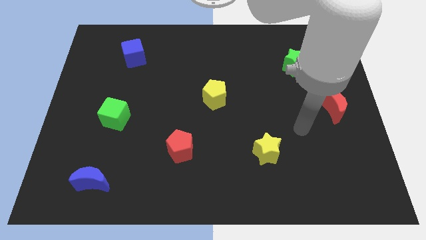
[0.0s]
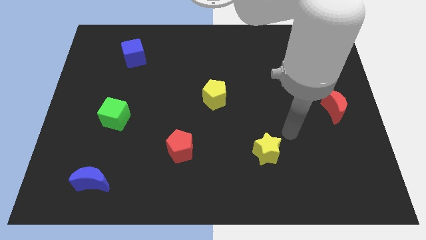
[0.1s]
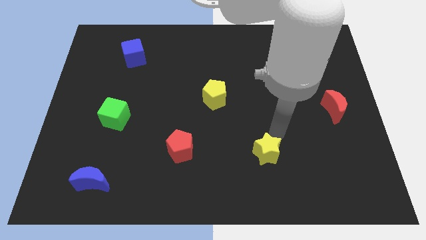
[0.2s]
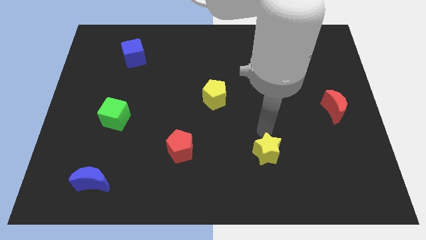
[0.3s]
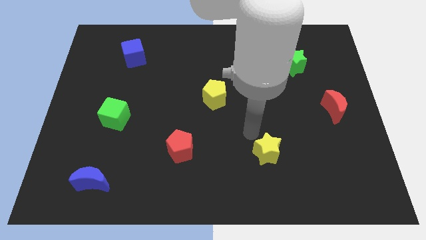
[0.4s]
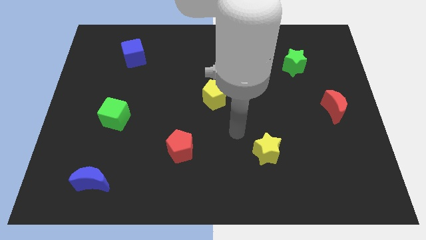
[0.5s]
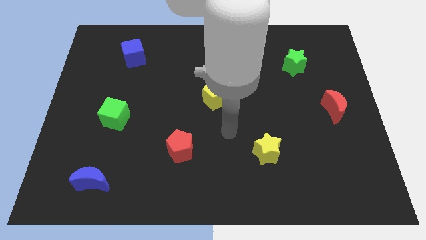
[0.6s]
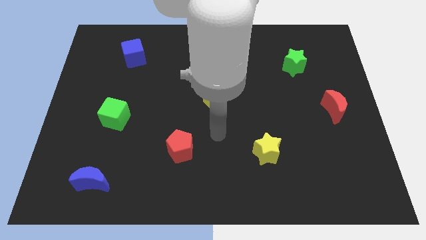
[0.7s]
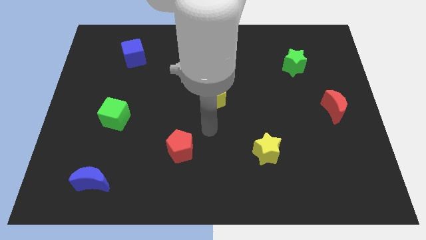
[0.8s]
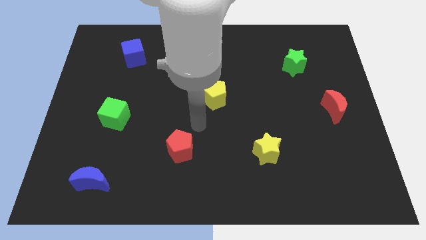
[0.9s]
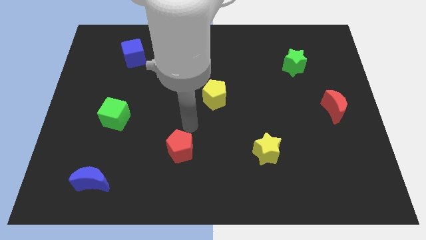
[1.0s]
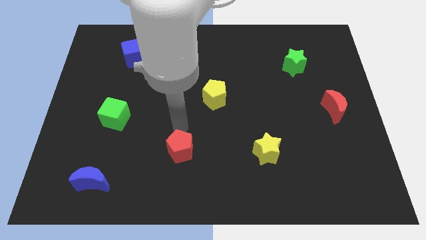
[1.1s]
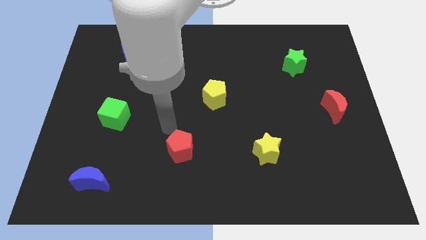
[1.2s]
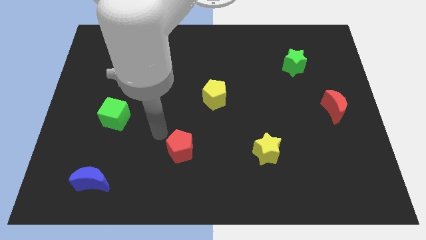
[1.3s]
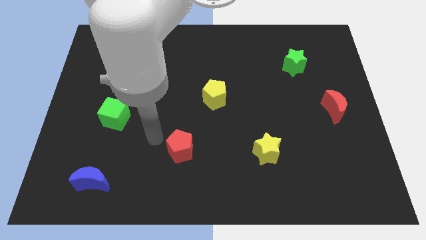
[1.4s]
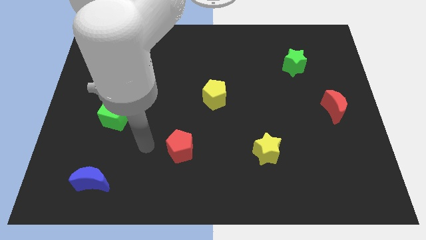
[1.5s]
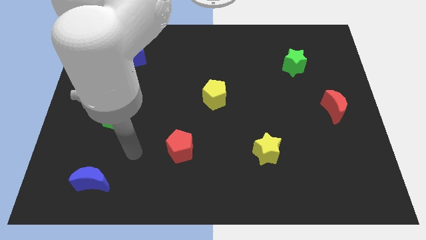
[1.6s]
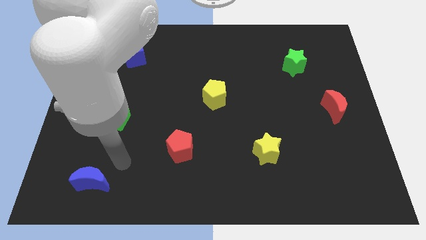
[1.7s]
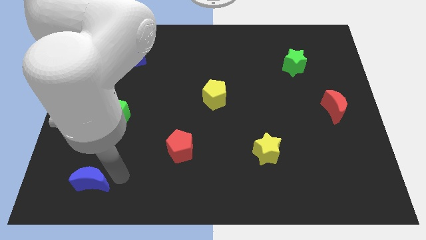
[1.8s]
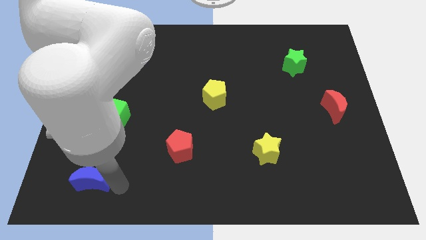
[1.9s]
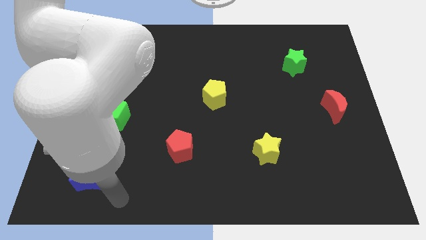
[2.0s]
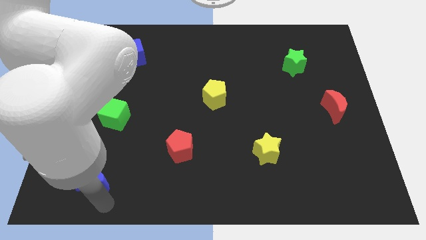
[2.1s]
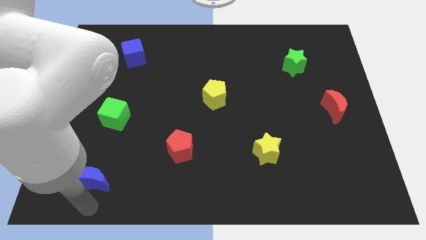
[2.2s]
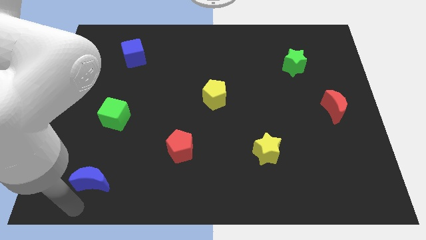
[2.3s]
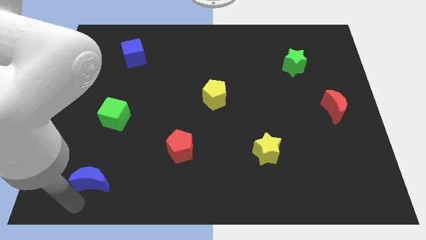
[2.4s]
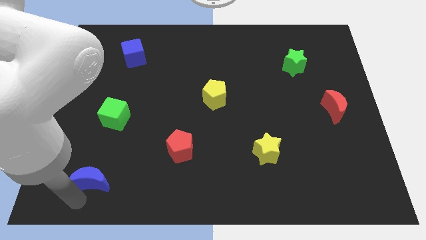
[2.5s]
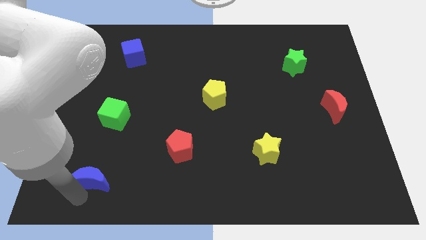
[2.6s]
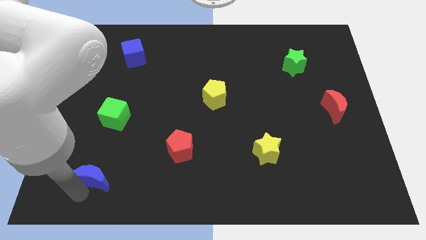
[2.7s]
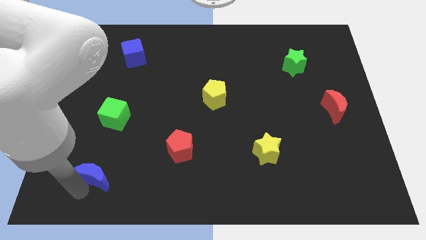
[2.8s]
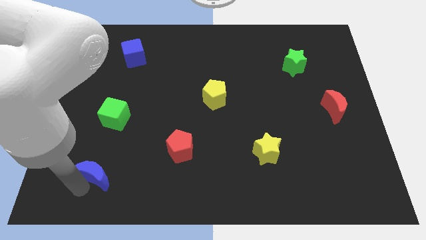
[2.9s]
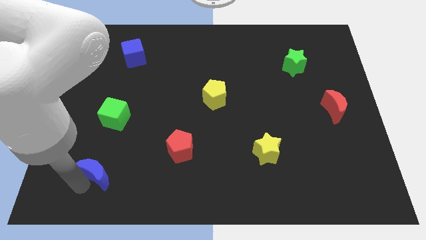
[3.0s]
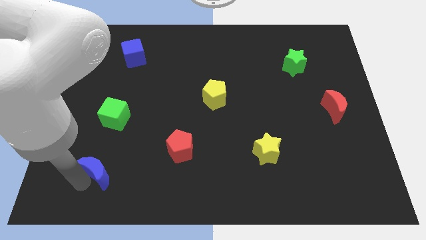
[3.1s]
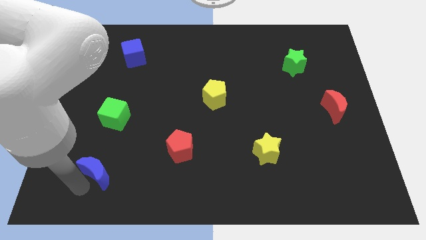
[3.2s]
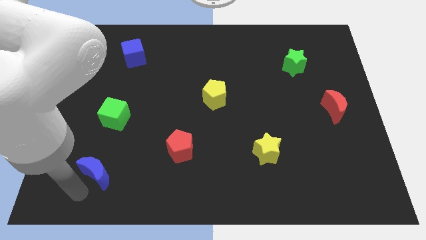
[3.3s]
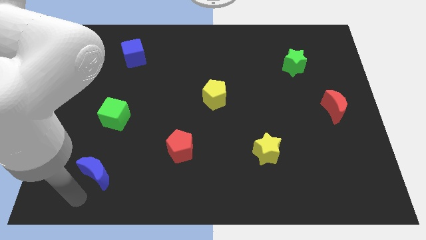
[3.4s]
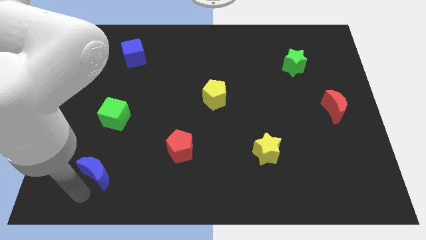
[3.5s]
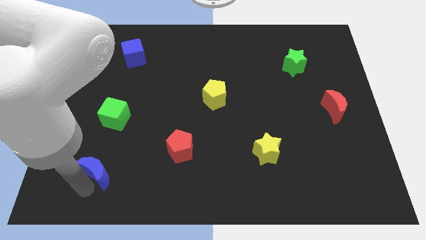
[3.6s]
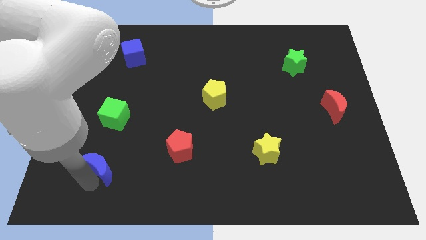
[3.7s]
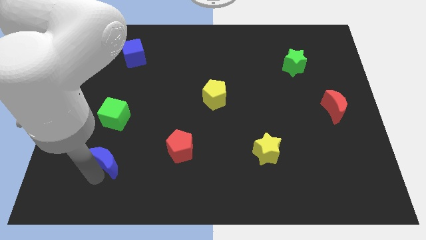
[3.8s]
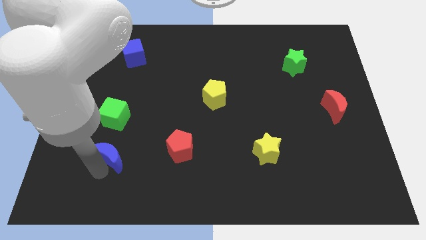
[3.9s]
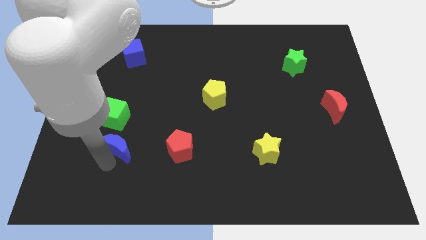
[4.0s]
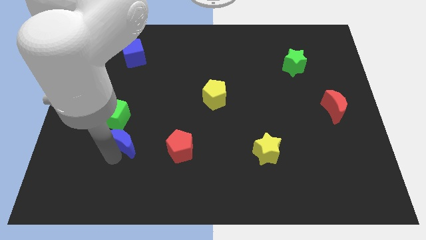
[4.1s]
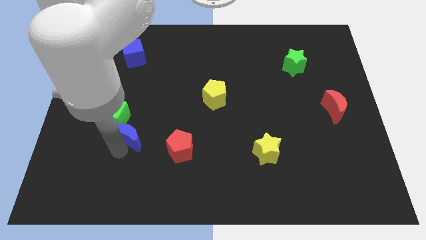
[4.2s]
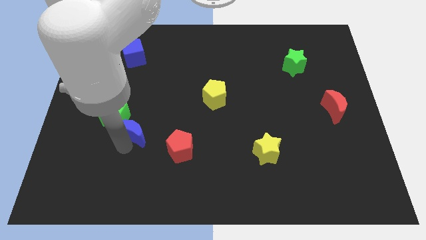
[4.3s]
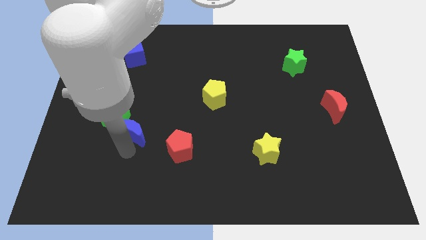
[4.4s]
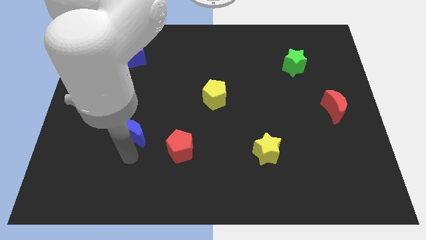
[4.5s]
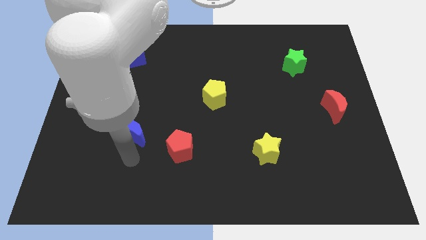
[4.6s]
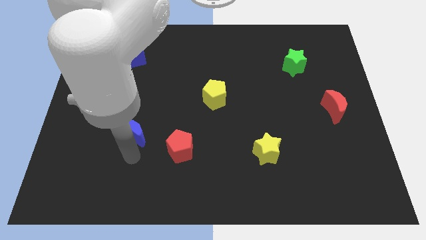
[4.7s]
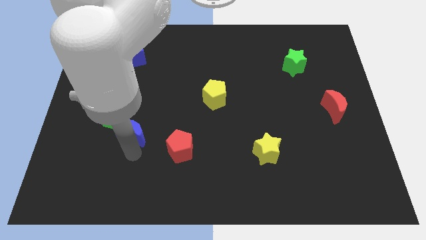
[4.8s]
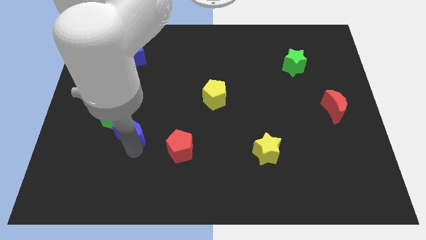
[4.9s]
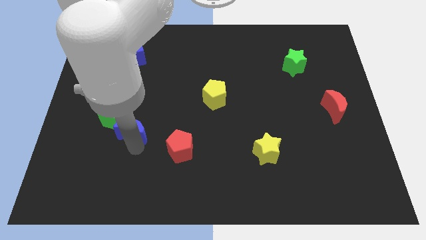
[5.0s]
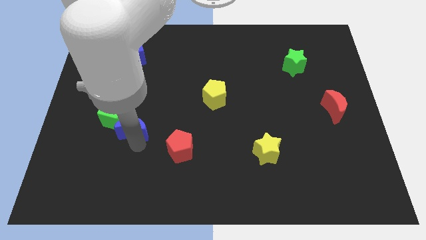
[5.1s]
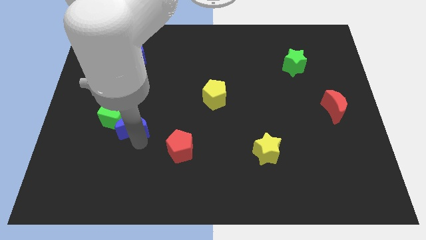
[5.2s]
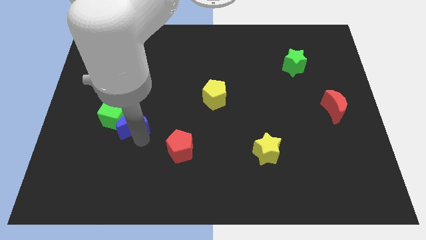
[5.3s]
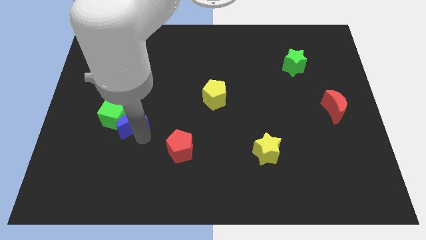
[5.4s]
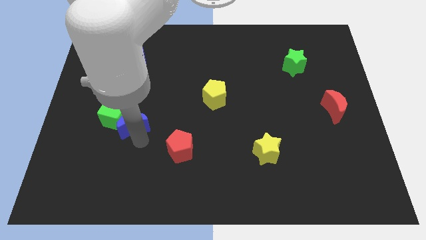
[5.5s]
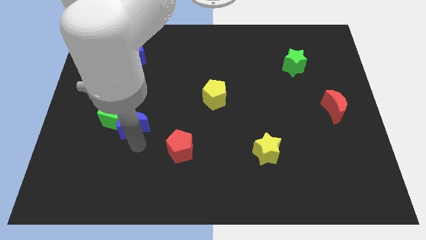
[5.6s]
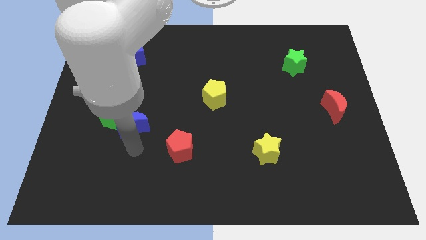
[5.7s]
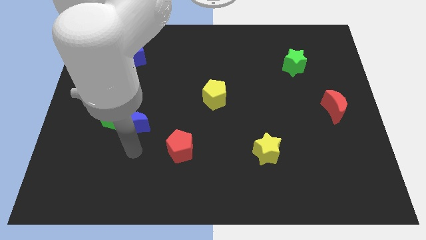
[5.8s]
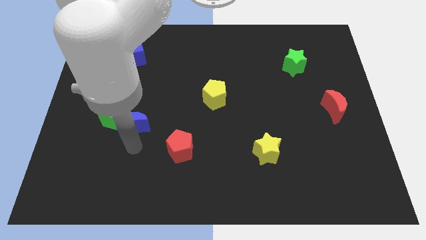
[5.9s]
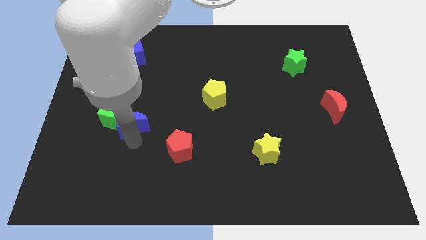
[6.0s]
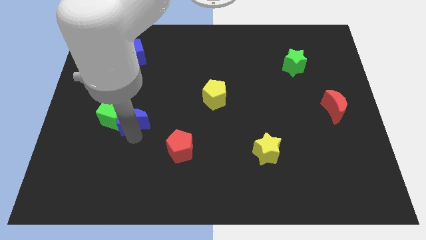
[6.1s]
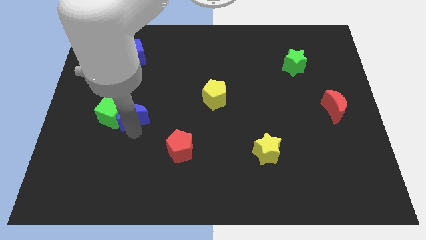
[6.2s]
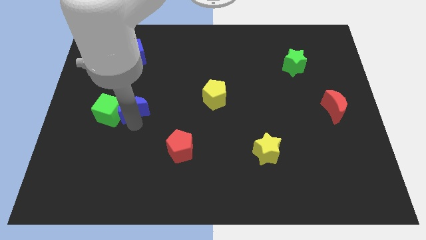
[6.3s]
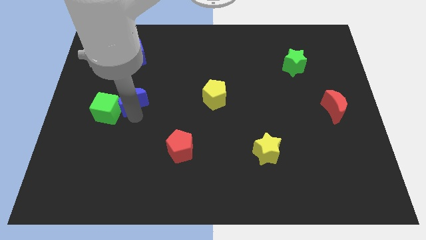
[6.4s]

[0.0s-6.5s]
slide the blue moon below the blue cube

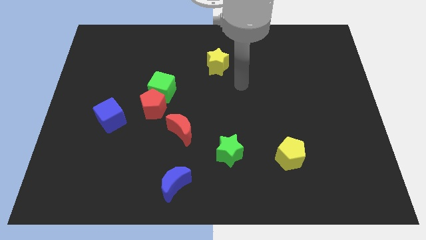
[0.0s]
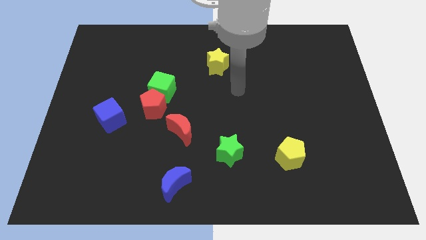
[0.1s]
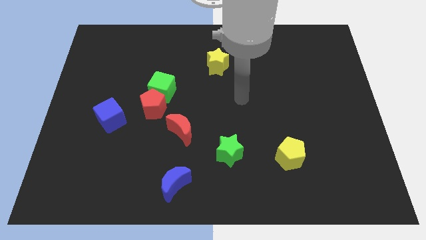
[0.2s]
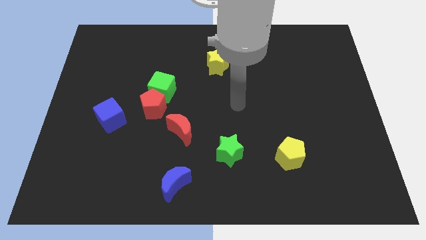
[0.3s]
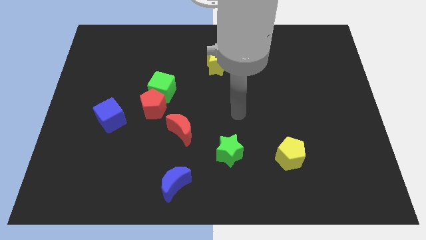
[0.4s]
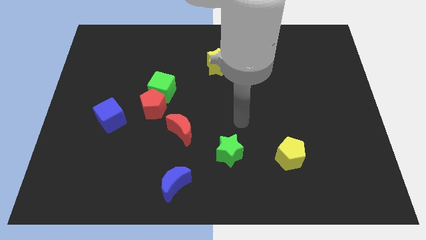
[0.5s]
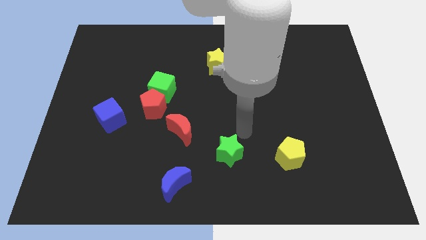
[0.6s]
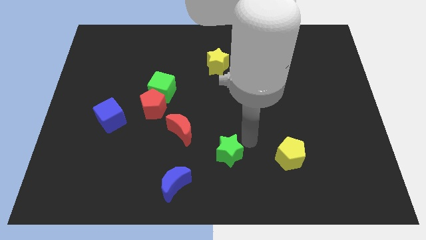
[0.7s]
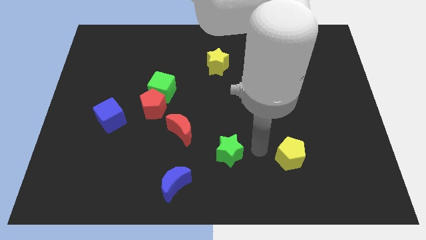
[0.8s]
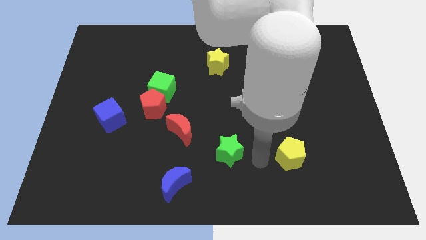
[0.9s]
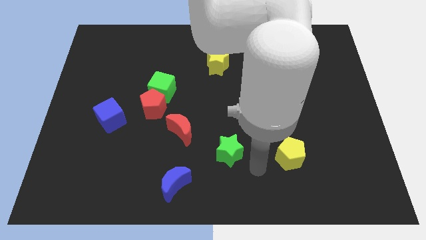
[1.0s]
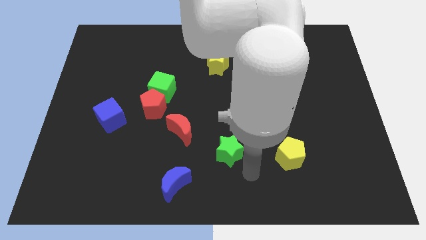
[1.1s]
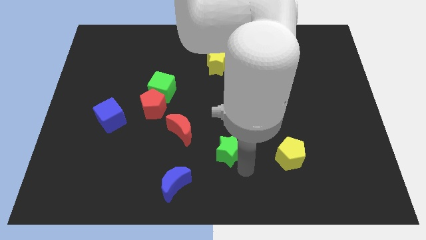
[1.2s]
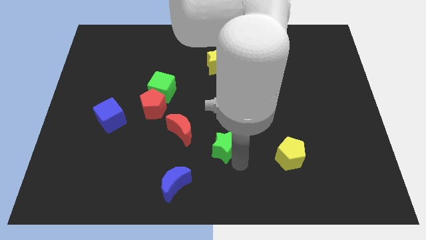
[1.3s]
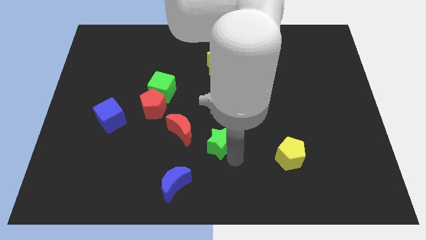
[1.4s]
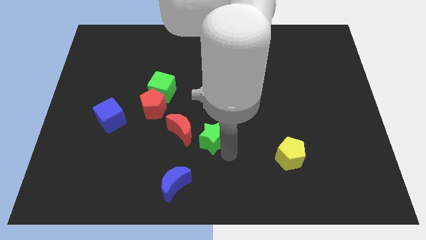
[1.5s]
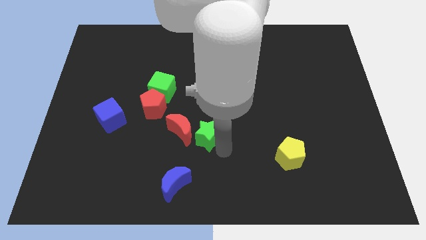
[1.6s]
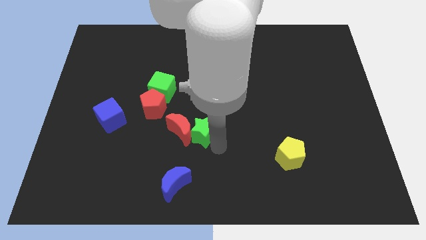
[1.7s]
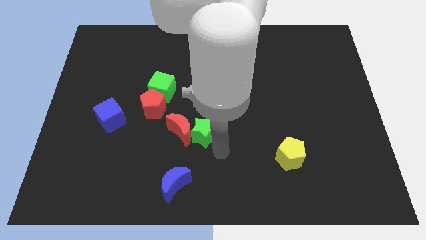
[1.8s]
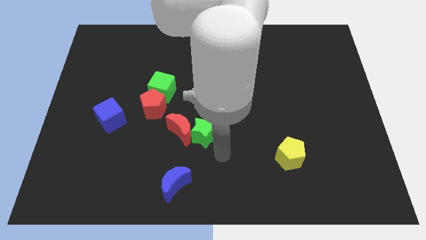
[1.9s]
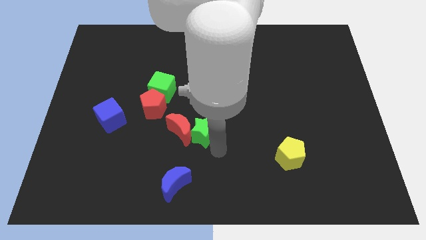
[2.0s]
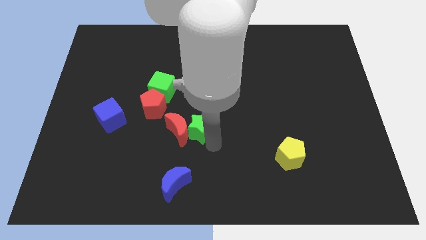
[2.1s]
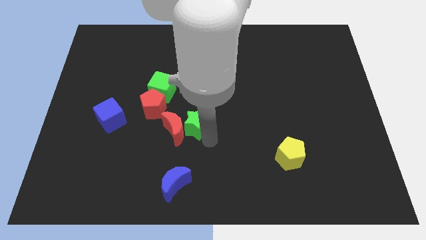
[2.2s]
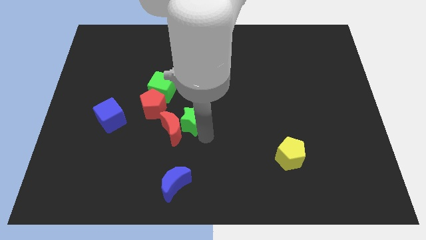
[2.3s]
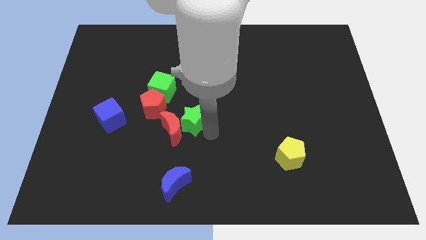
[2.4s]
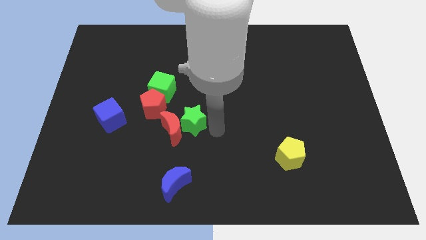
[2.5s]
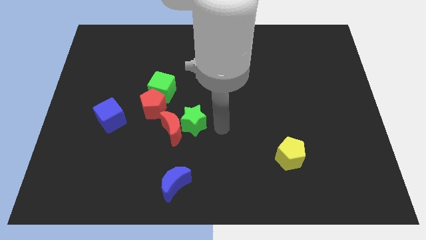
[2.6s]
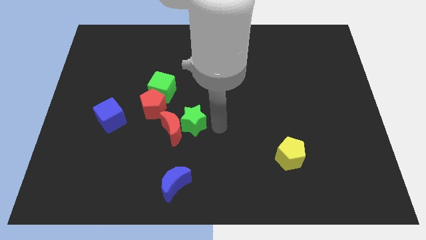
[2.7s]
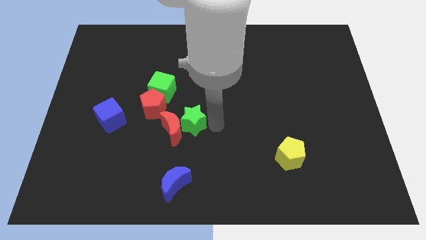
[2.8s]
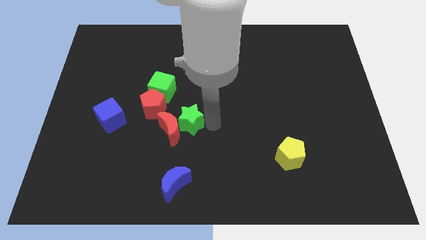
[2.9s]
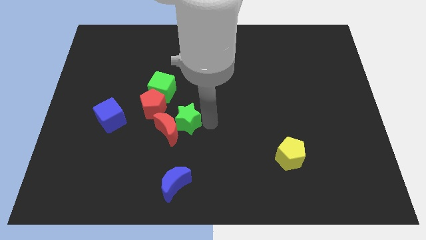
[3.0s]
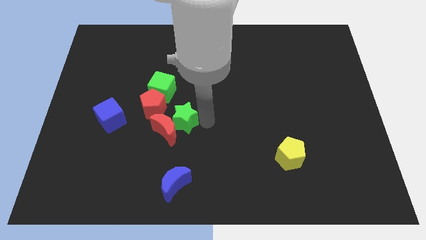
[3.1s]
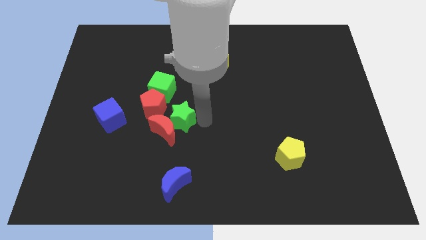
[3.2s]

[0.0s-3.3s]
put the green star just right of the blue cube
